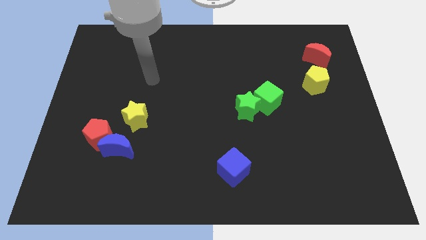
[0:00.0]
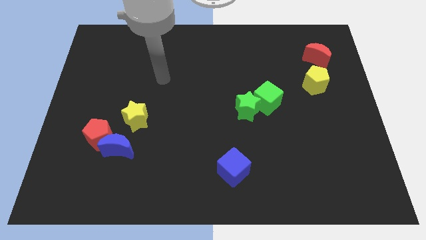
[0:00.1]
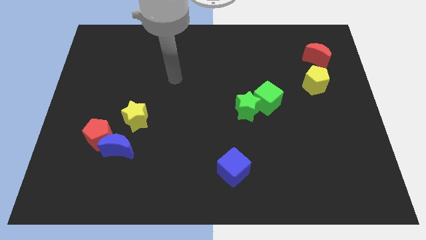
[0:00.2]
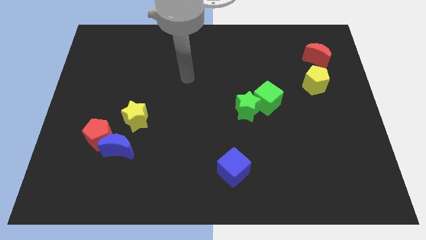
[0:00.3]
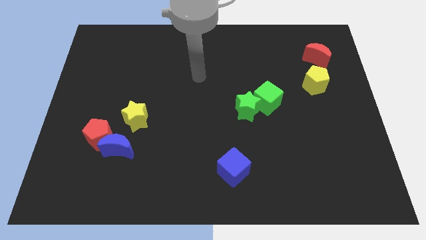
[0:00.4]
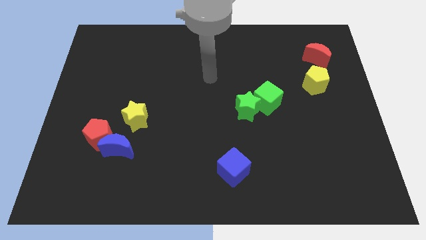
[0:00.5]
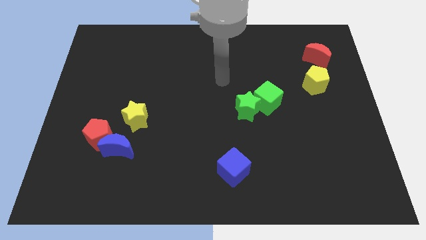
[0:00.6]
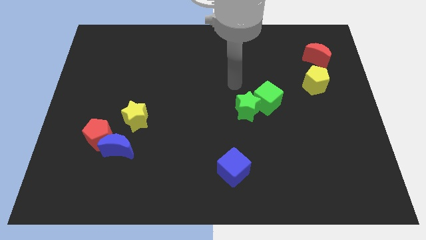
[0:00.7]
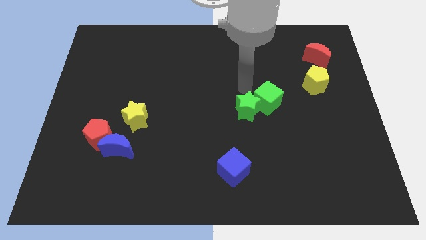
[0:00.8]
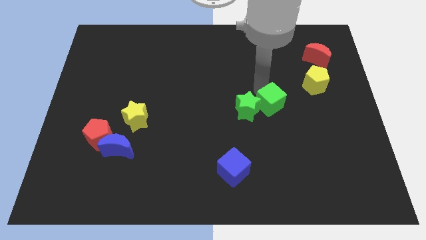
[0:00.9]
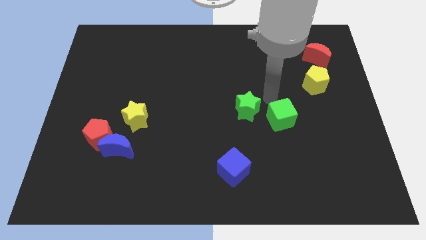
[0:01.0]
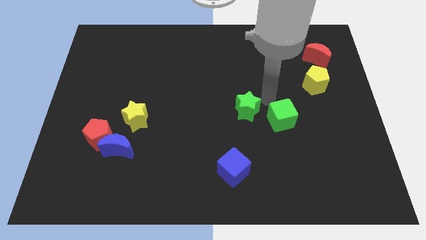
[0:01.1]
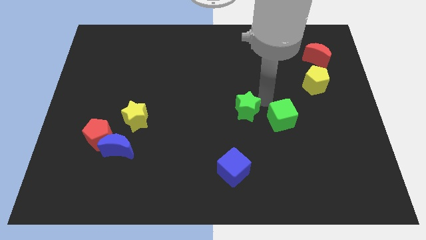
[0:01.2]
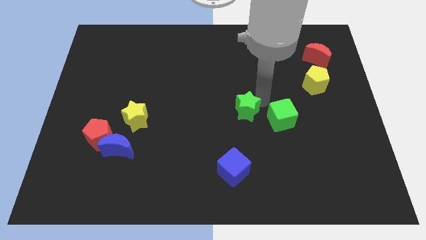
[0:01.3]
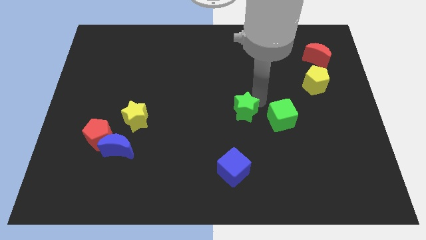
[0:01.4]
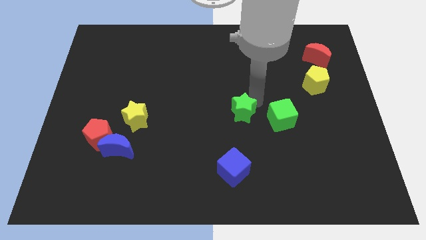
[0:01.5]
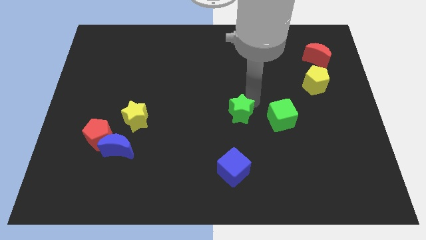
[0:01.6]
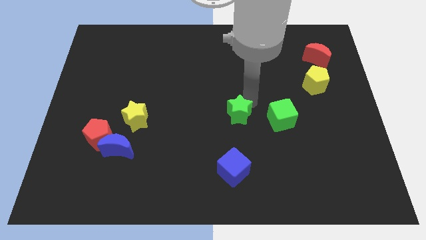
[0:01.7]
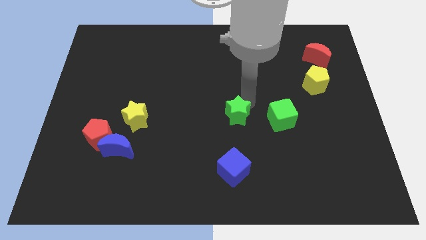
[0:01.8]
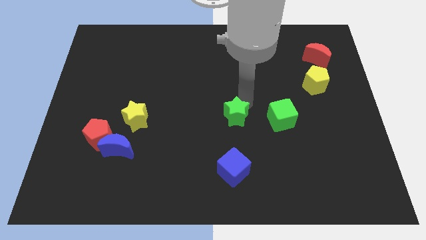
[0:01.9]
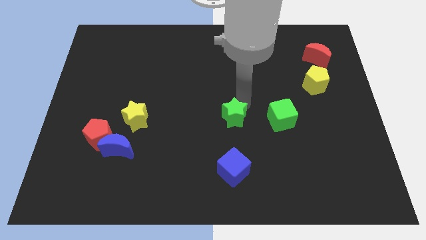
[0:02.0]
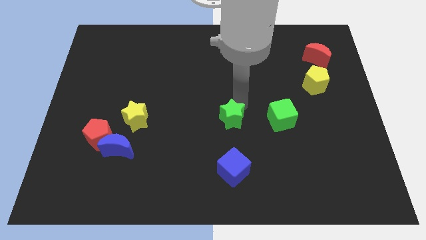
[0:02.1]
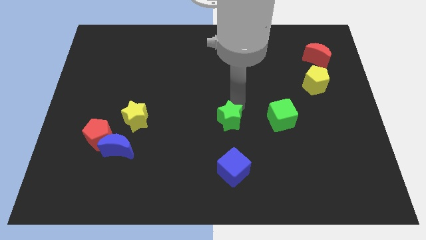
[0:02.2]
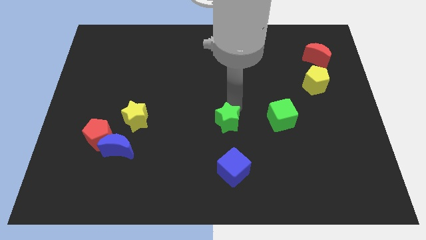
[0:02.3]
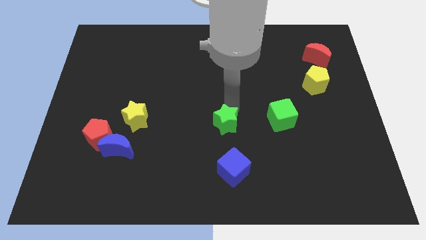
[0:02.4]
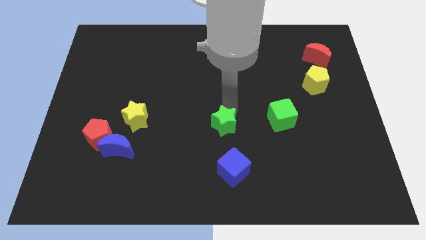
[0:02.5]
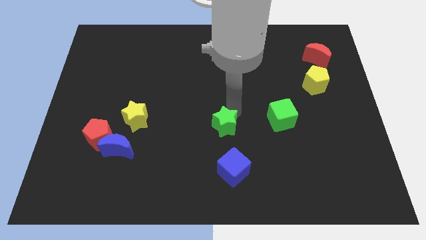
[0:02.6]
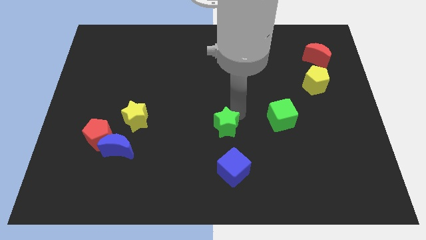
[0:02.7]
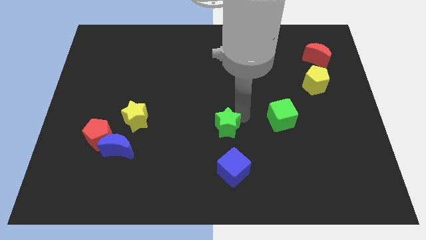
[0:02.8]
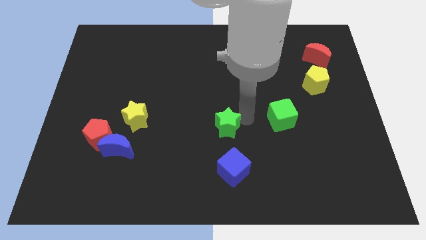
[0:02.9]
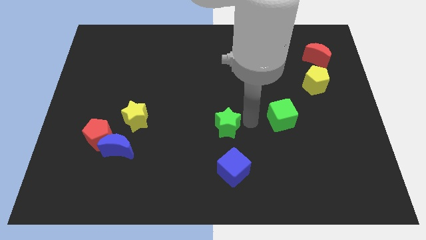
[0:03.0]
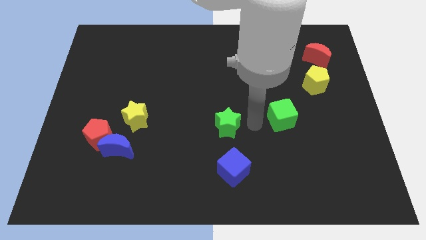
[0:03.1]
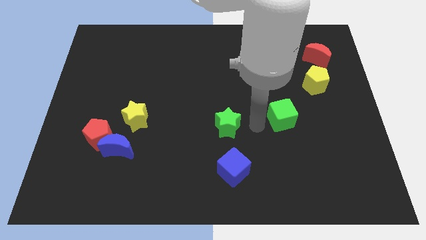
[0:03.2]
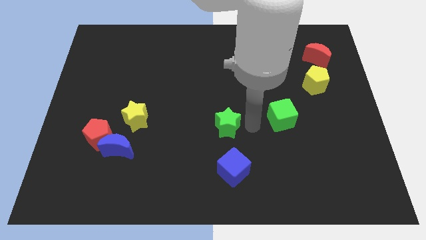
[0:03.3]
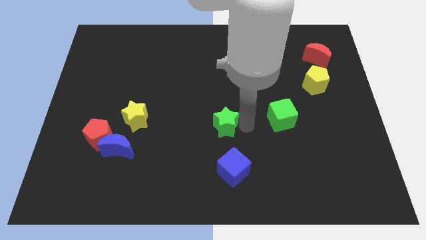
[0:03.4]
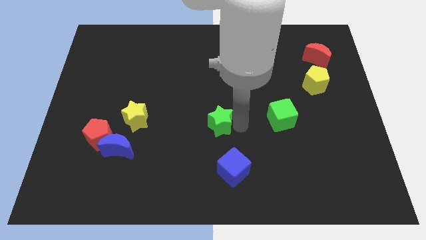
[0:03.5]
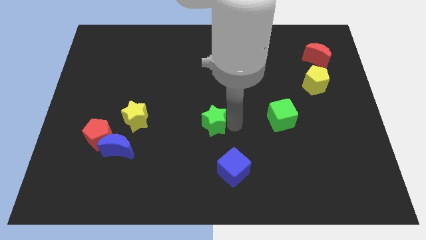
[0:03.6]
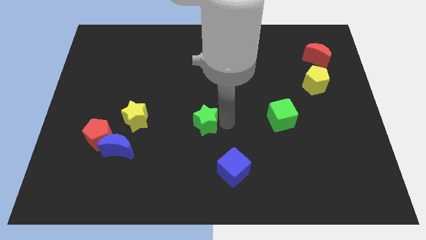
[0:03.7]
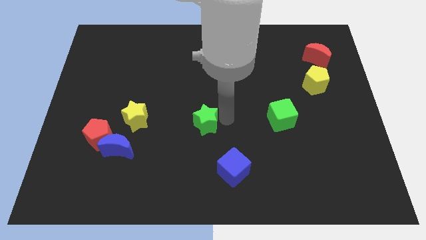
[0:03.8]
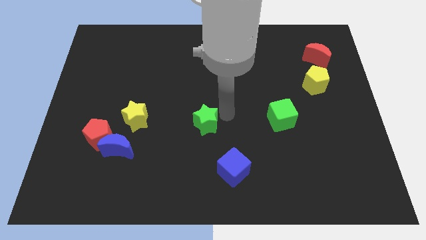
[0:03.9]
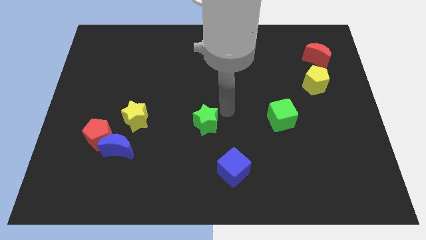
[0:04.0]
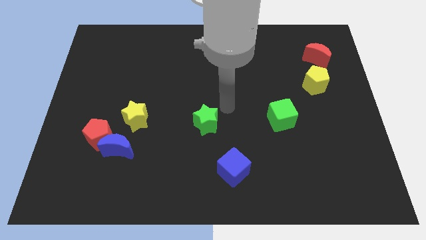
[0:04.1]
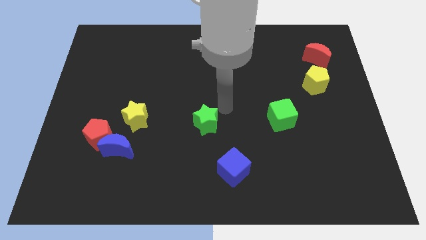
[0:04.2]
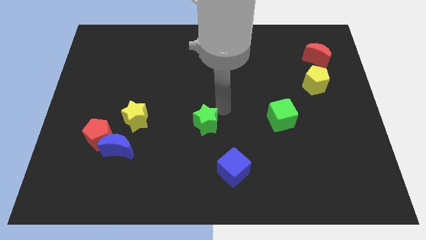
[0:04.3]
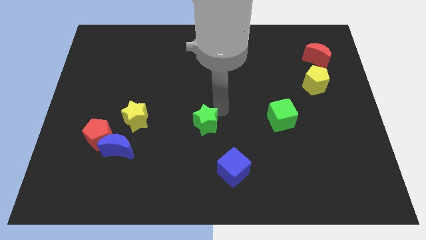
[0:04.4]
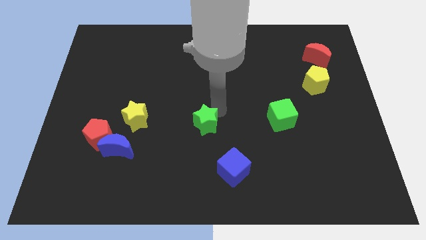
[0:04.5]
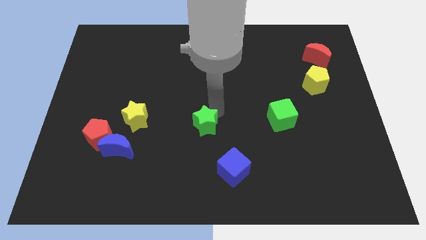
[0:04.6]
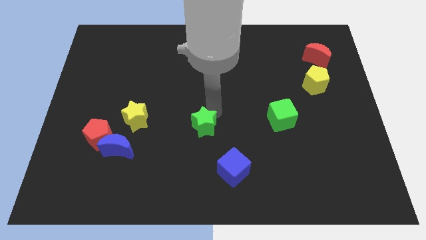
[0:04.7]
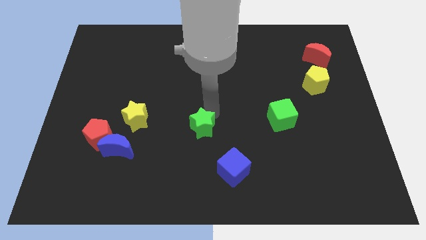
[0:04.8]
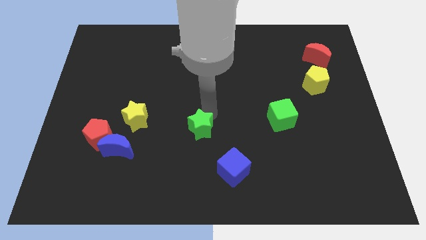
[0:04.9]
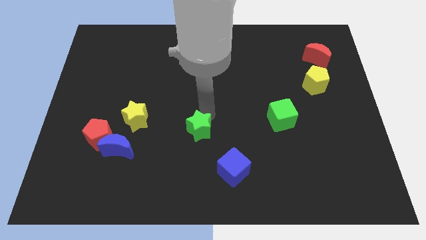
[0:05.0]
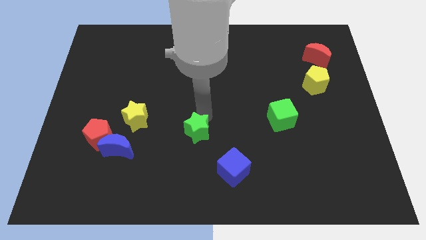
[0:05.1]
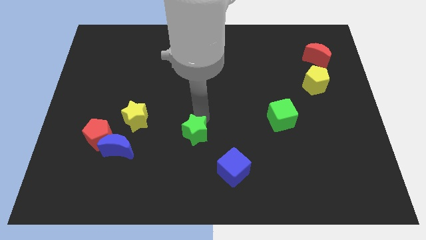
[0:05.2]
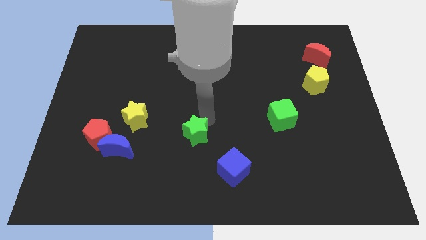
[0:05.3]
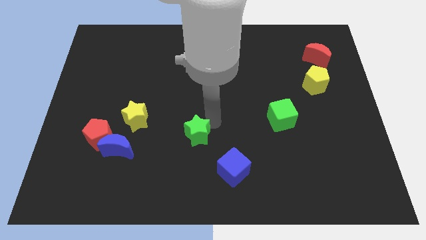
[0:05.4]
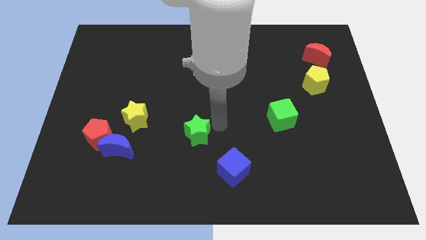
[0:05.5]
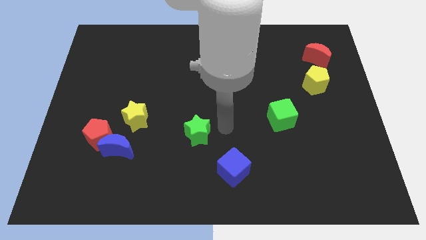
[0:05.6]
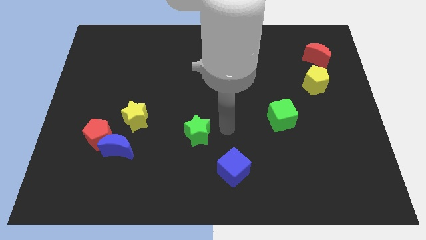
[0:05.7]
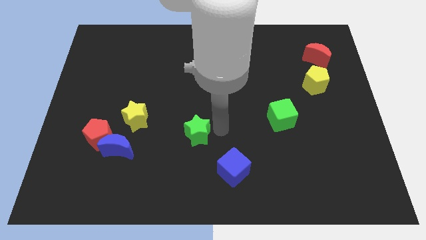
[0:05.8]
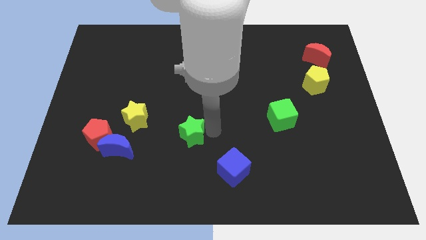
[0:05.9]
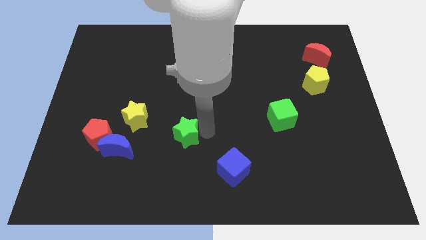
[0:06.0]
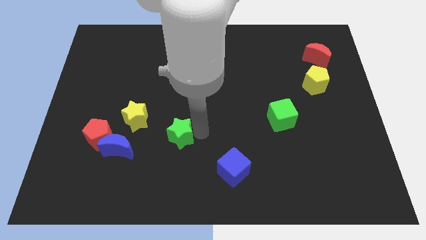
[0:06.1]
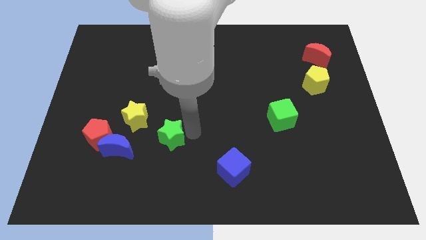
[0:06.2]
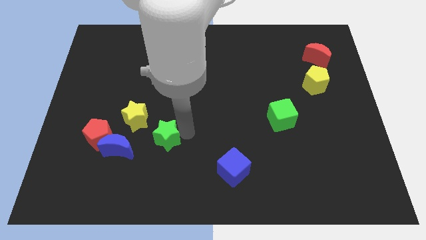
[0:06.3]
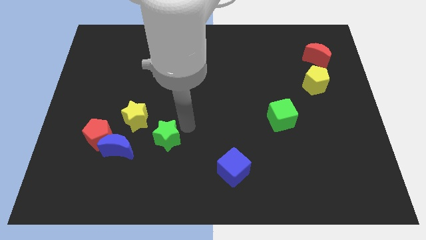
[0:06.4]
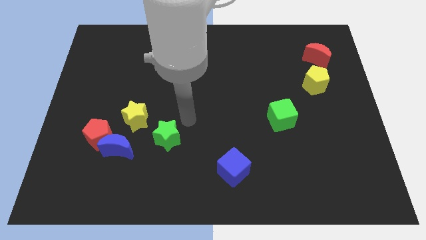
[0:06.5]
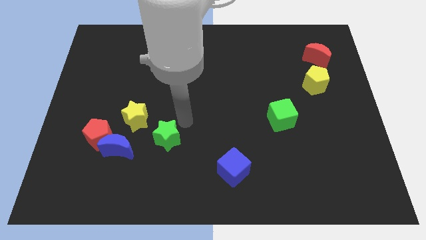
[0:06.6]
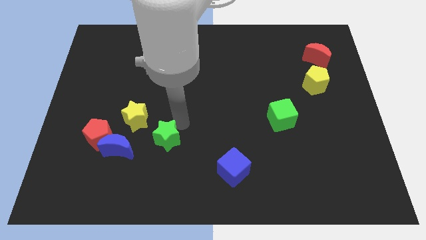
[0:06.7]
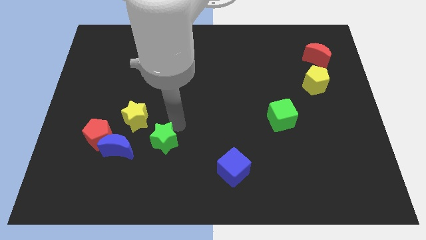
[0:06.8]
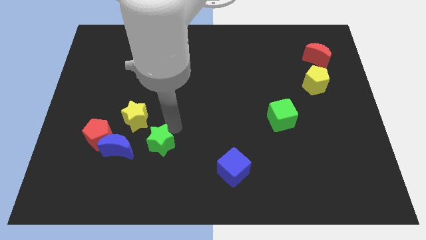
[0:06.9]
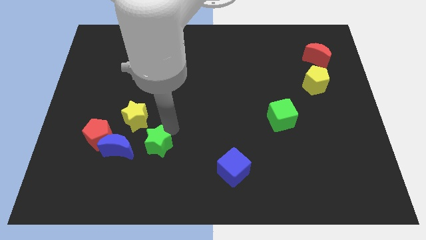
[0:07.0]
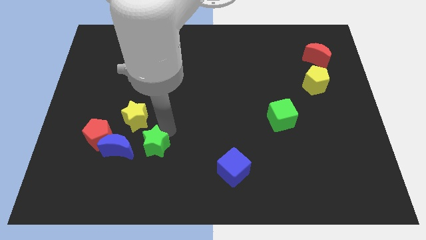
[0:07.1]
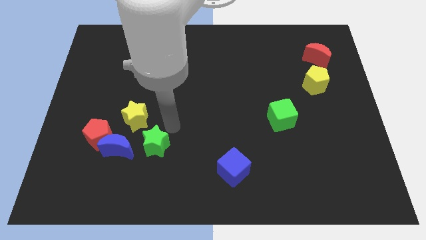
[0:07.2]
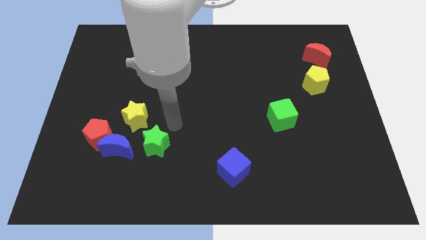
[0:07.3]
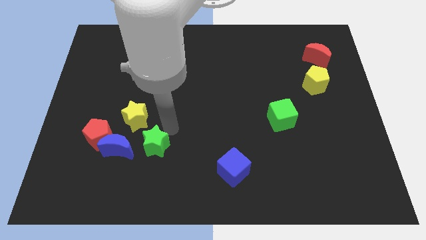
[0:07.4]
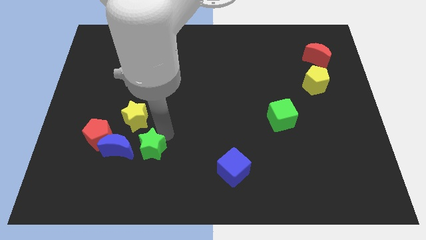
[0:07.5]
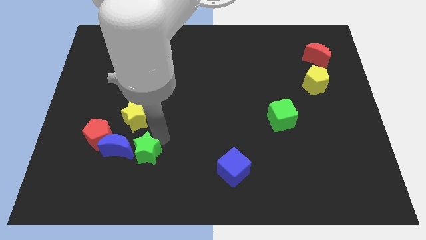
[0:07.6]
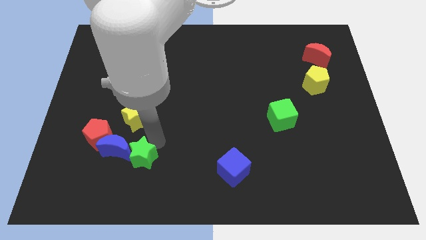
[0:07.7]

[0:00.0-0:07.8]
put the green star to the bottom right of the red pentagon

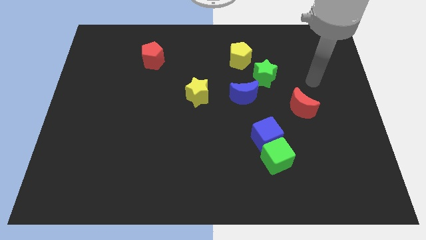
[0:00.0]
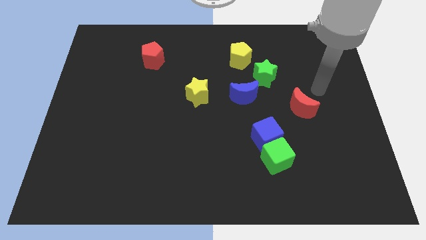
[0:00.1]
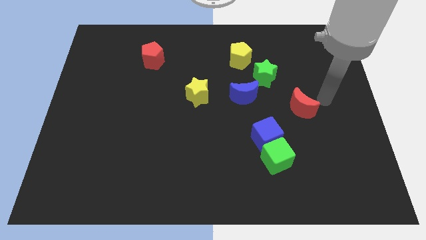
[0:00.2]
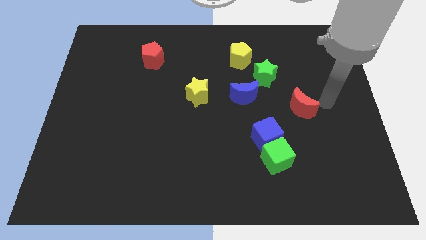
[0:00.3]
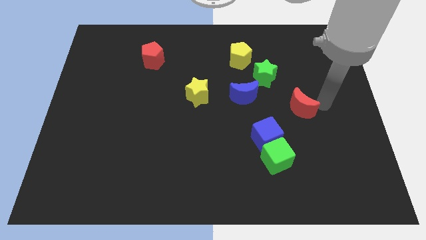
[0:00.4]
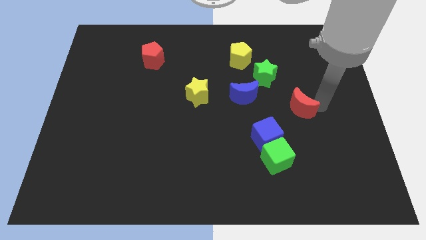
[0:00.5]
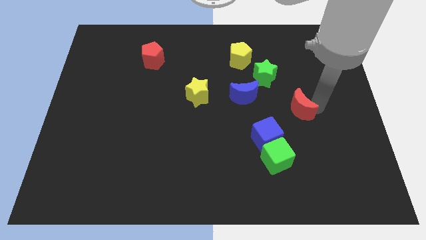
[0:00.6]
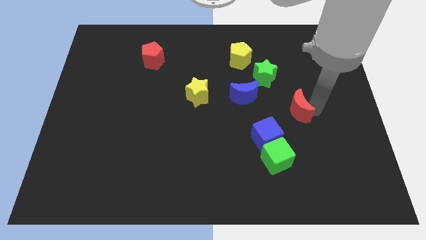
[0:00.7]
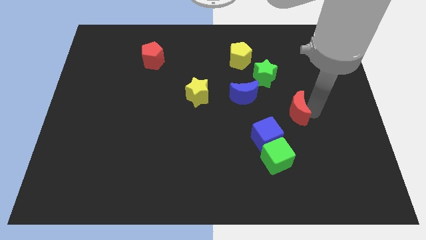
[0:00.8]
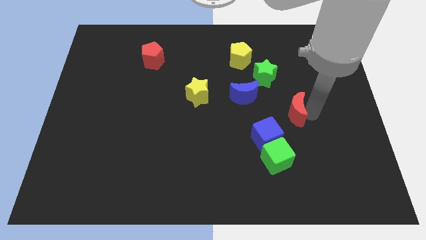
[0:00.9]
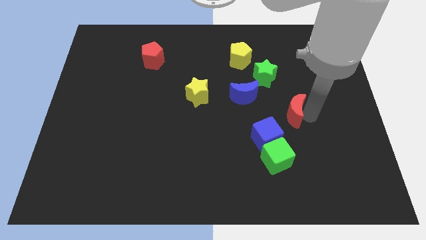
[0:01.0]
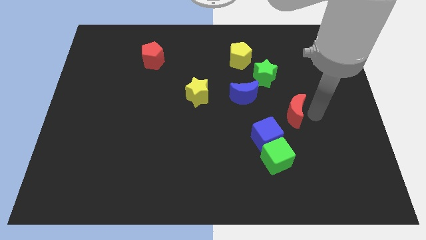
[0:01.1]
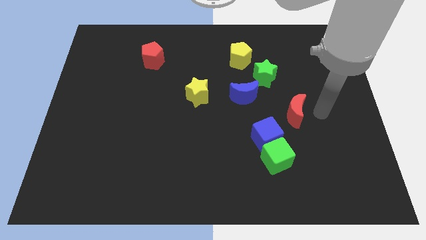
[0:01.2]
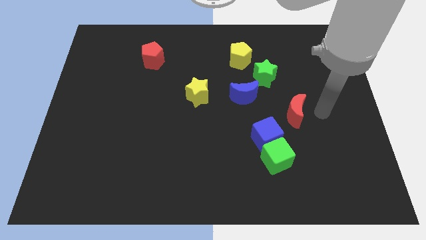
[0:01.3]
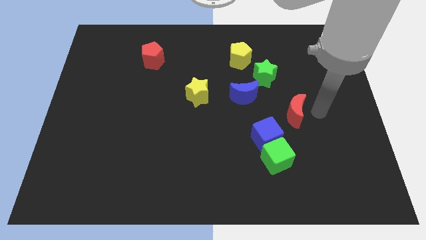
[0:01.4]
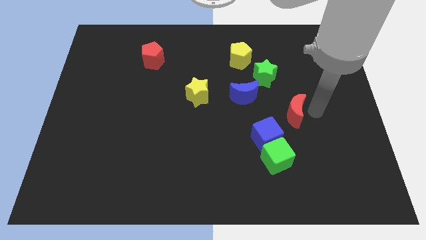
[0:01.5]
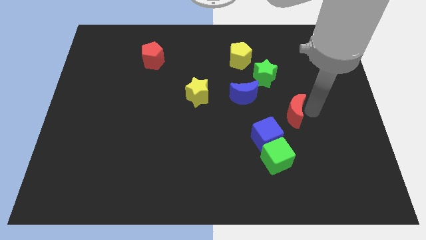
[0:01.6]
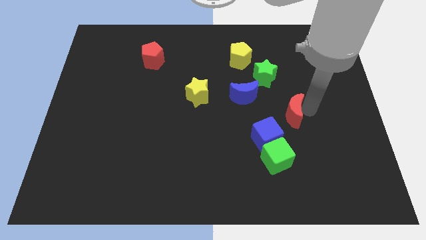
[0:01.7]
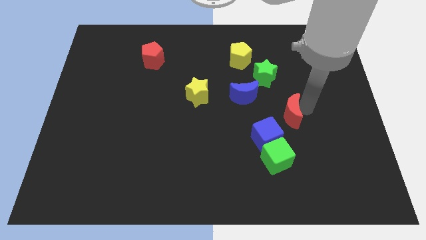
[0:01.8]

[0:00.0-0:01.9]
put the red moon to the bottom right side of the blue moon
